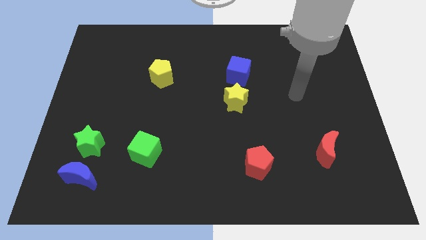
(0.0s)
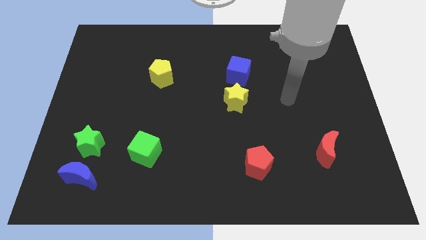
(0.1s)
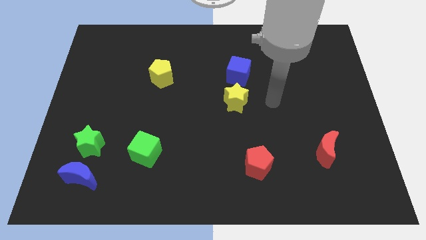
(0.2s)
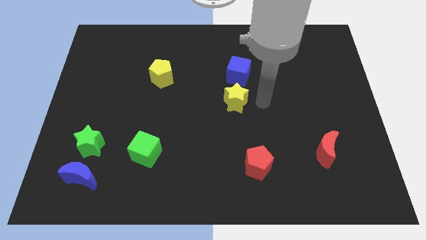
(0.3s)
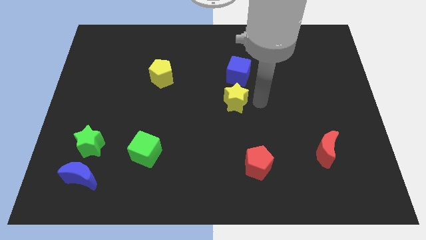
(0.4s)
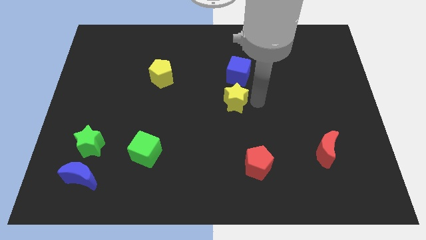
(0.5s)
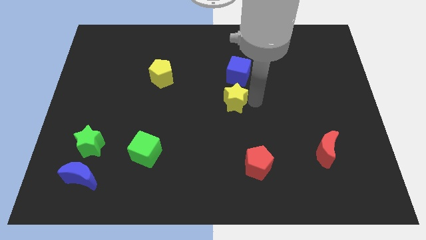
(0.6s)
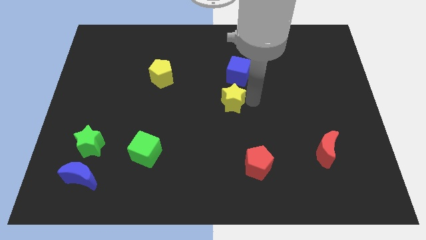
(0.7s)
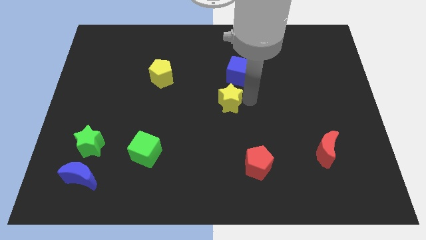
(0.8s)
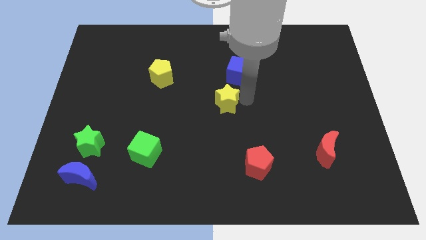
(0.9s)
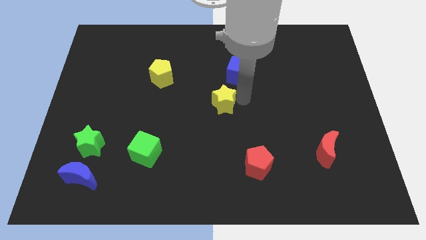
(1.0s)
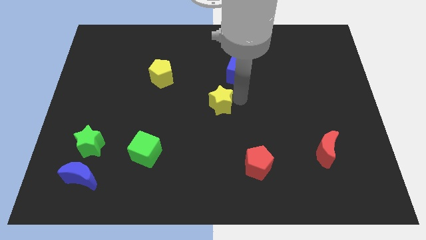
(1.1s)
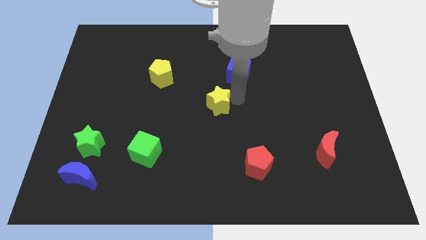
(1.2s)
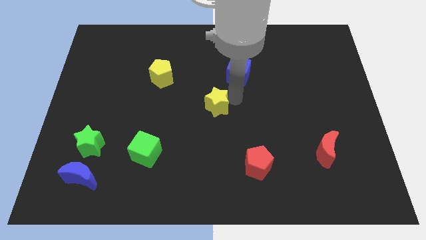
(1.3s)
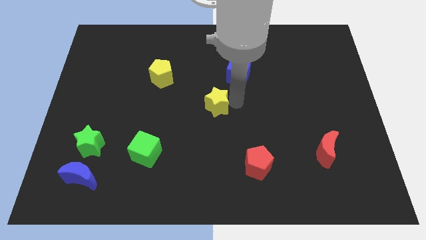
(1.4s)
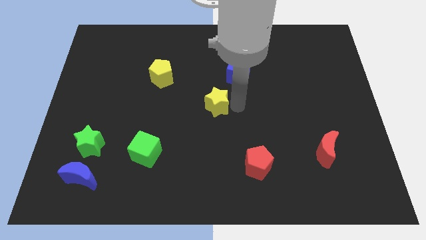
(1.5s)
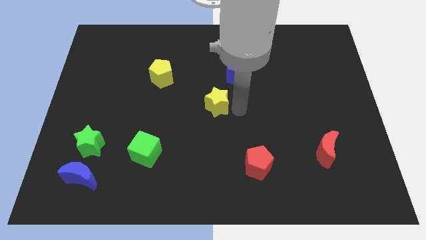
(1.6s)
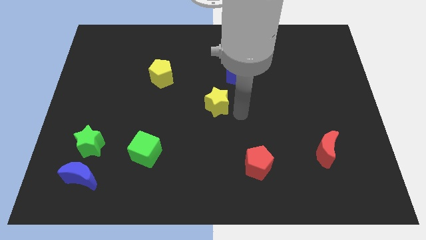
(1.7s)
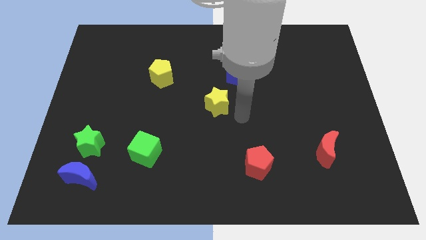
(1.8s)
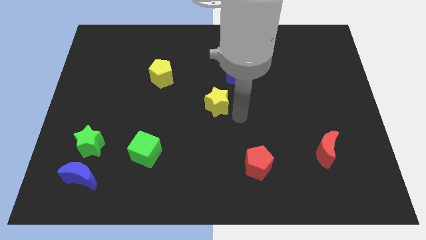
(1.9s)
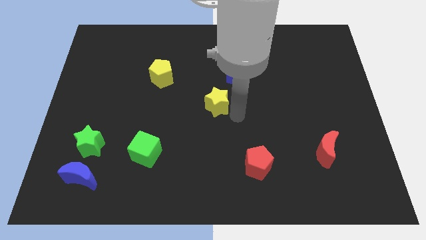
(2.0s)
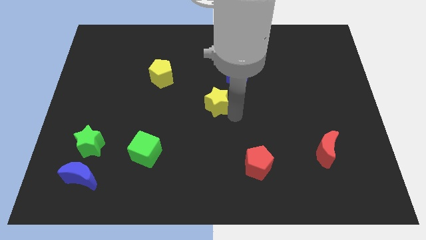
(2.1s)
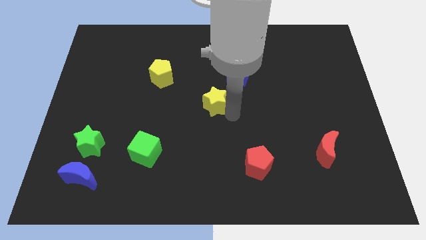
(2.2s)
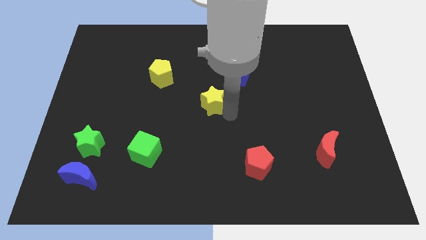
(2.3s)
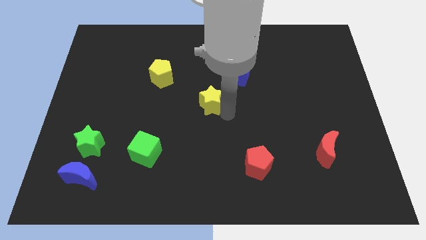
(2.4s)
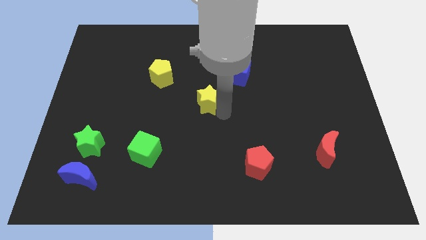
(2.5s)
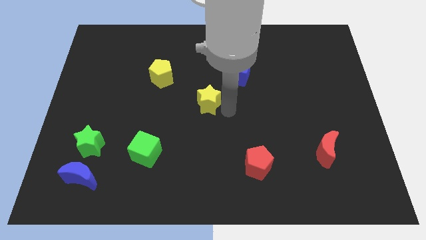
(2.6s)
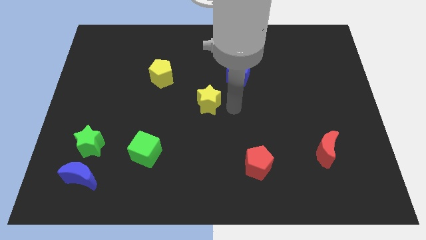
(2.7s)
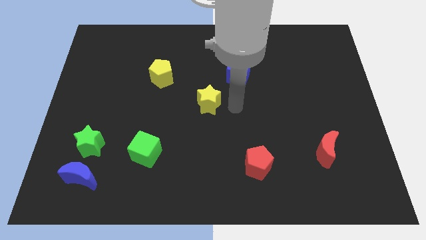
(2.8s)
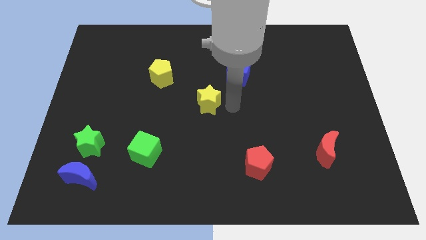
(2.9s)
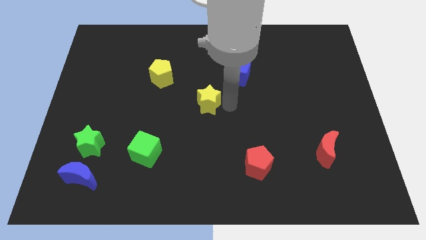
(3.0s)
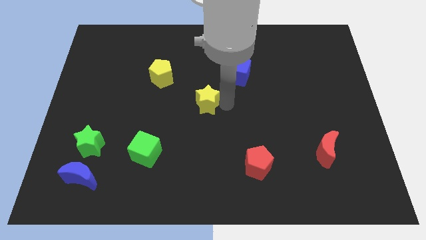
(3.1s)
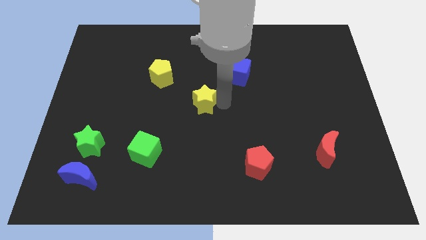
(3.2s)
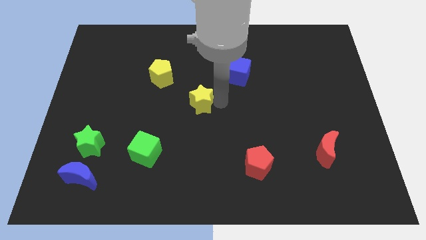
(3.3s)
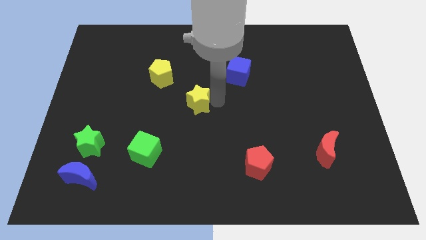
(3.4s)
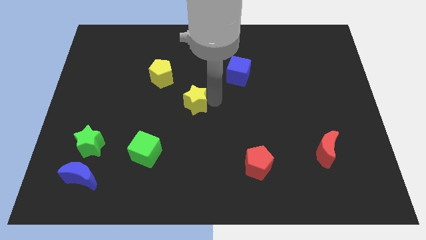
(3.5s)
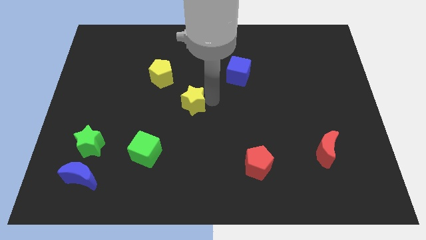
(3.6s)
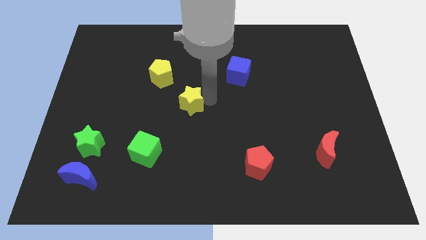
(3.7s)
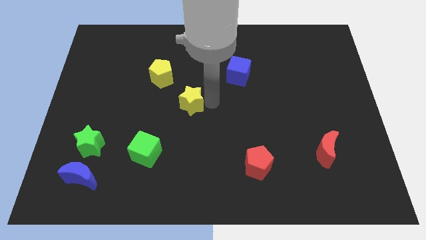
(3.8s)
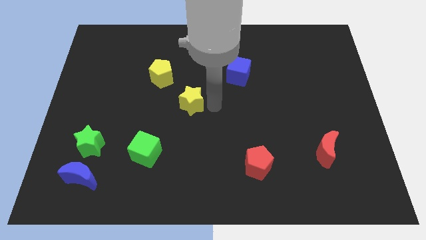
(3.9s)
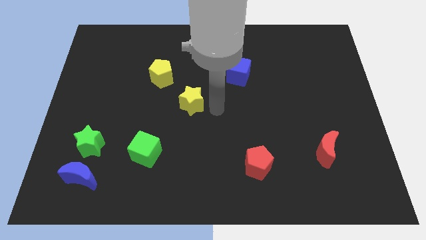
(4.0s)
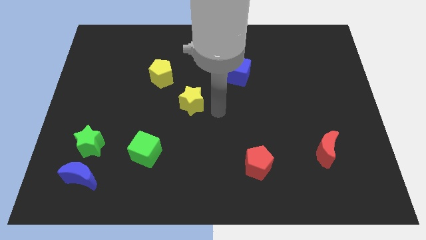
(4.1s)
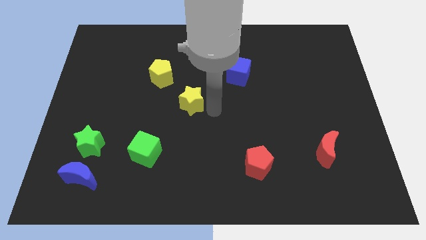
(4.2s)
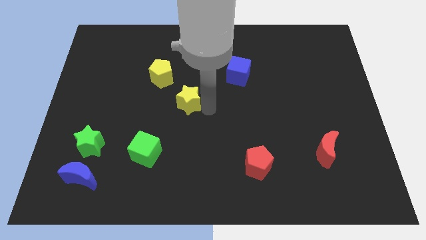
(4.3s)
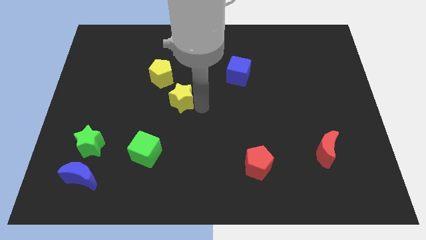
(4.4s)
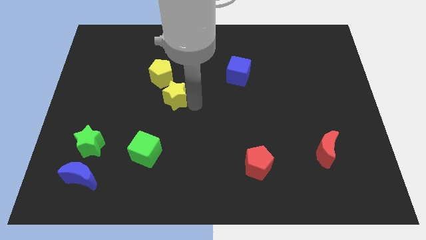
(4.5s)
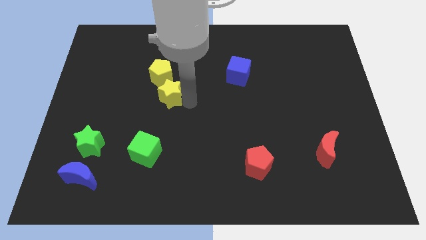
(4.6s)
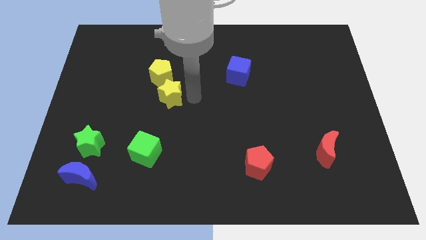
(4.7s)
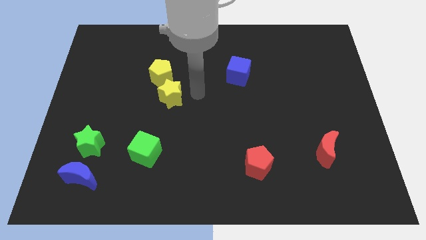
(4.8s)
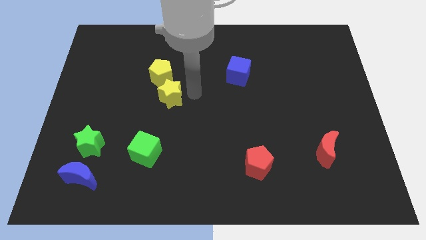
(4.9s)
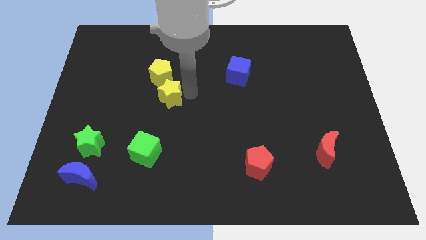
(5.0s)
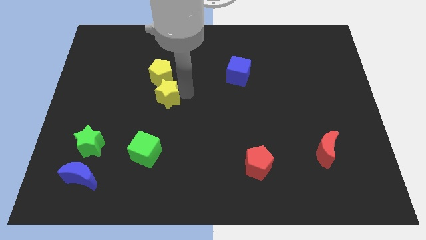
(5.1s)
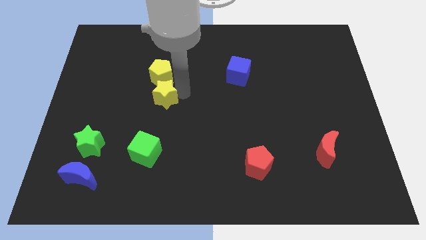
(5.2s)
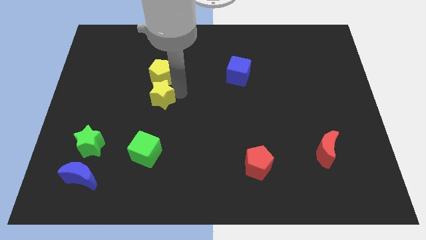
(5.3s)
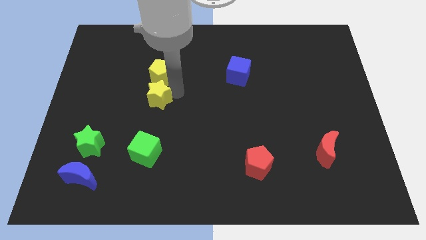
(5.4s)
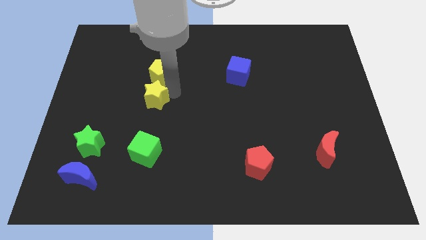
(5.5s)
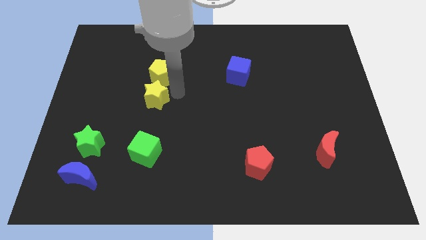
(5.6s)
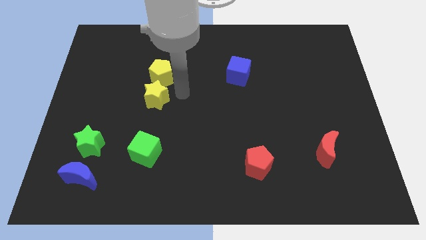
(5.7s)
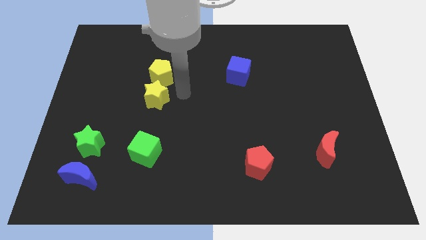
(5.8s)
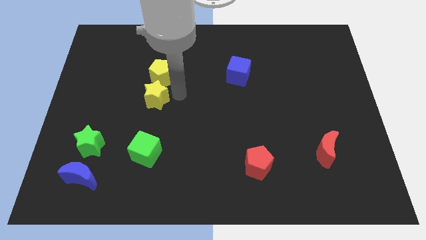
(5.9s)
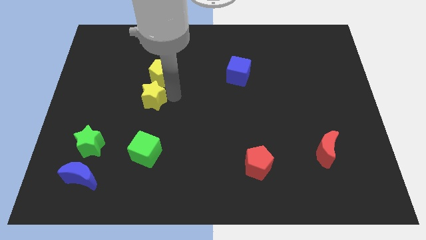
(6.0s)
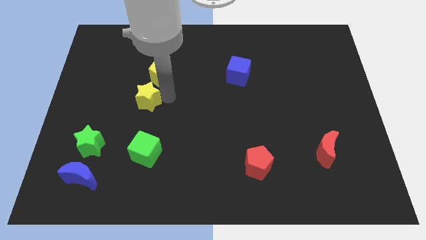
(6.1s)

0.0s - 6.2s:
push the yellow star to the left

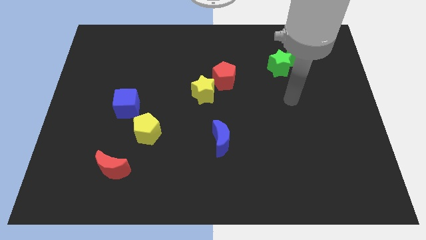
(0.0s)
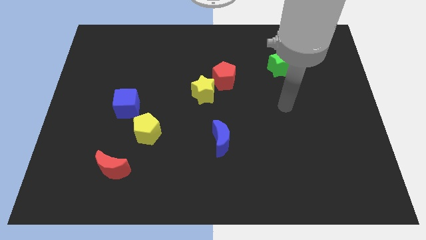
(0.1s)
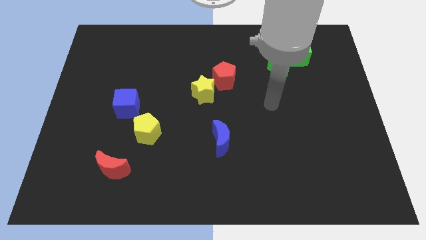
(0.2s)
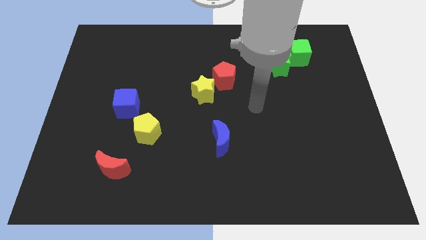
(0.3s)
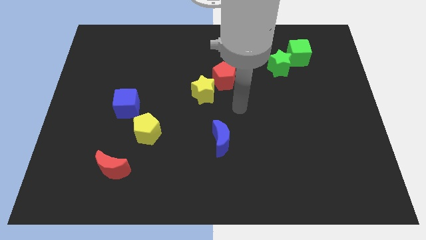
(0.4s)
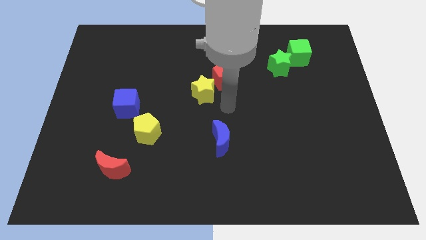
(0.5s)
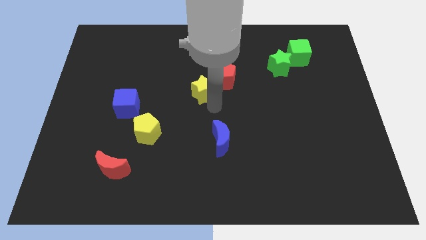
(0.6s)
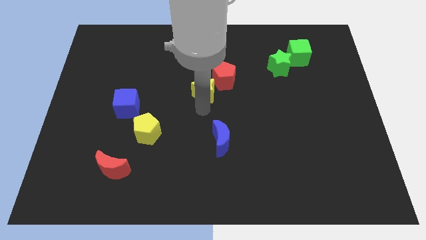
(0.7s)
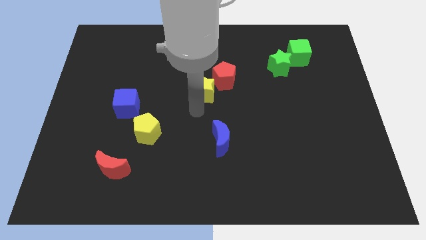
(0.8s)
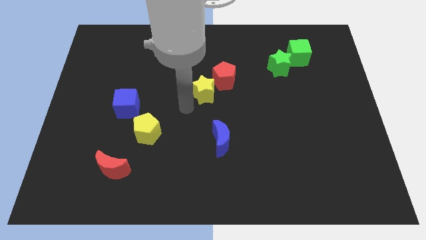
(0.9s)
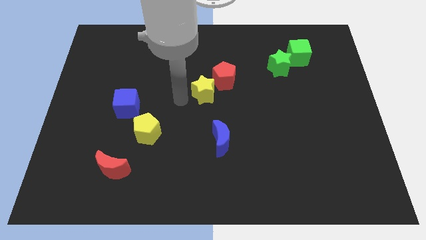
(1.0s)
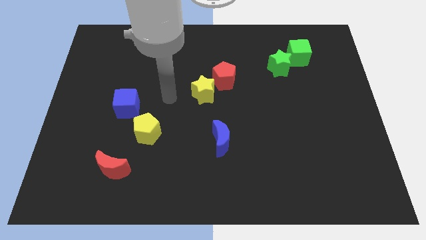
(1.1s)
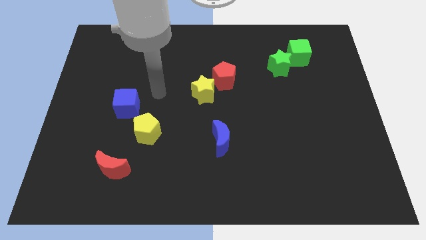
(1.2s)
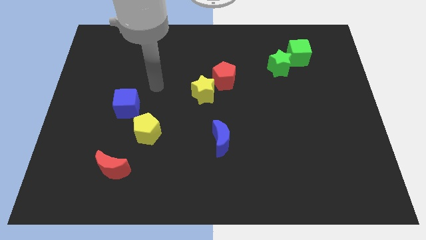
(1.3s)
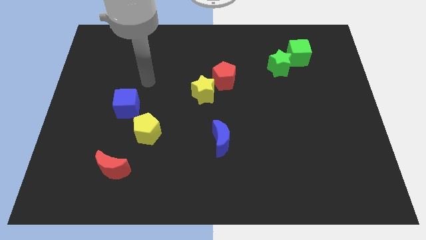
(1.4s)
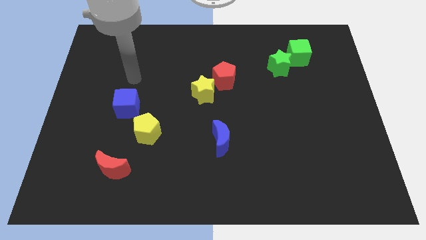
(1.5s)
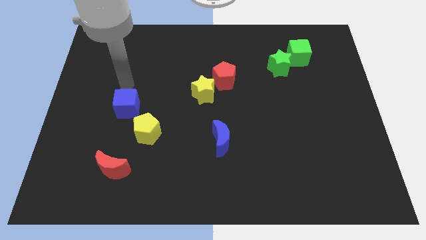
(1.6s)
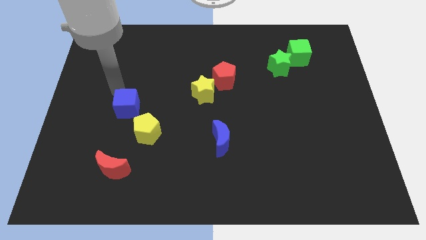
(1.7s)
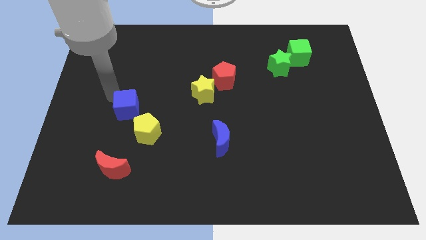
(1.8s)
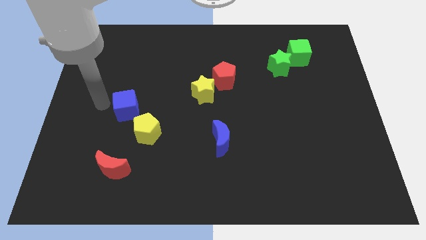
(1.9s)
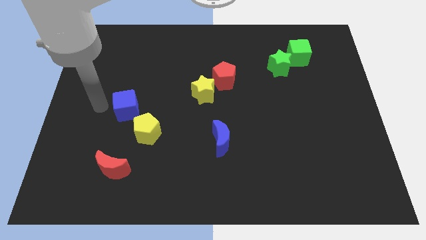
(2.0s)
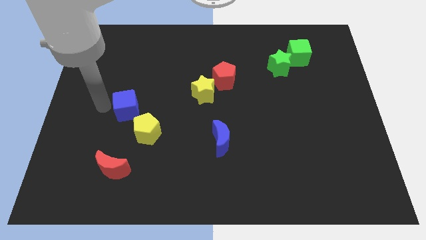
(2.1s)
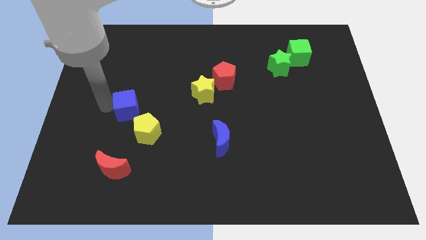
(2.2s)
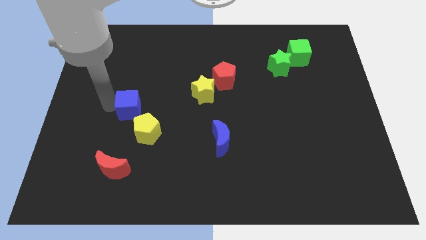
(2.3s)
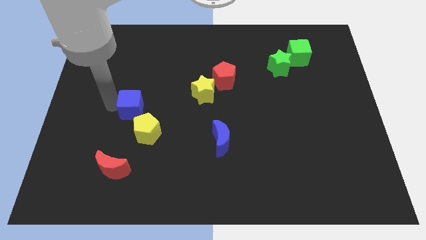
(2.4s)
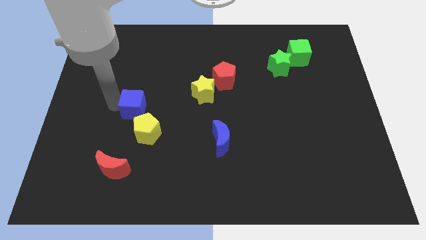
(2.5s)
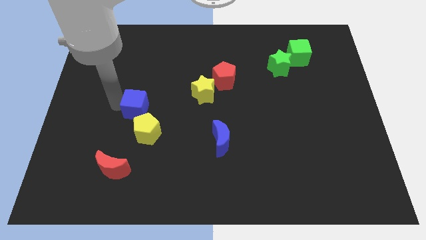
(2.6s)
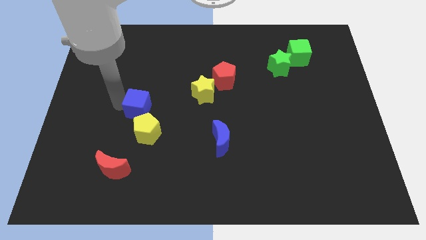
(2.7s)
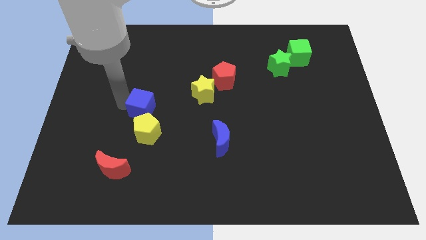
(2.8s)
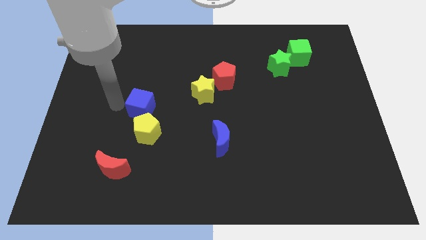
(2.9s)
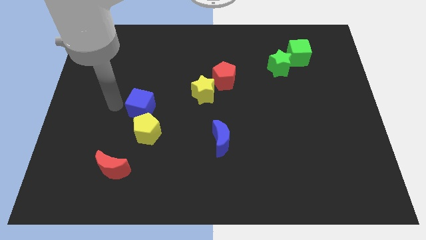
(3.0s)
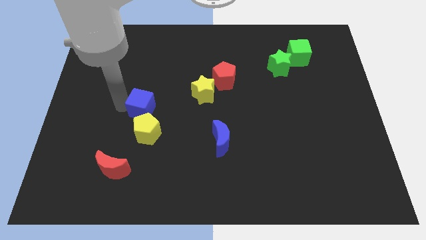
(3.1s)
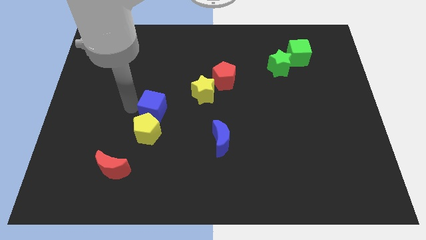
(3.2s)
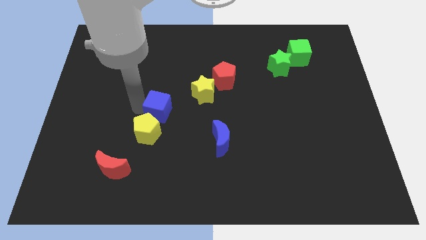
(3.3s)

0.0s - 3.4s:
slide the blue cube to the right somewhat
